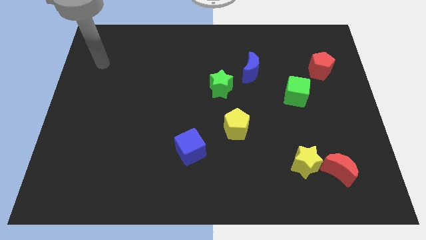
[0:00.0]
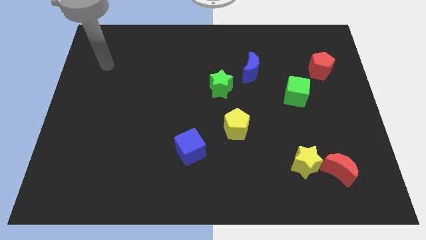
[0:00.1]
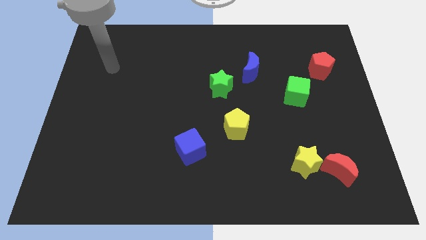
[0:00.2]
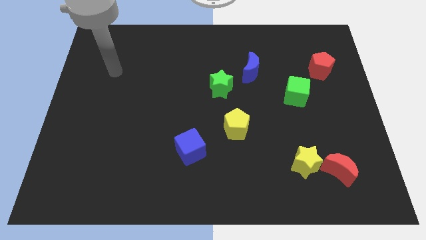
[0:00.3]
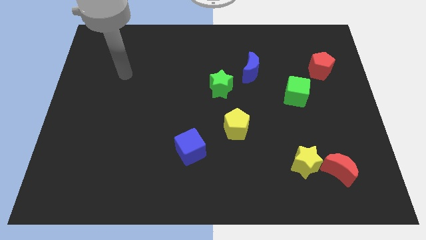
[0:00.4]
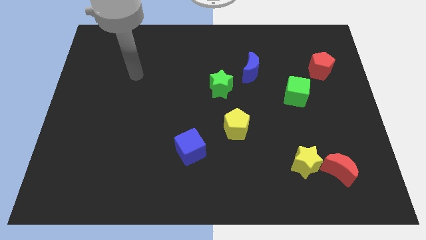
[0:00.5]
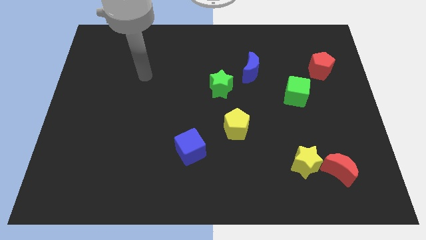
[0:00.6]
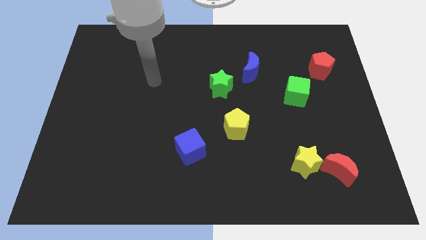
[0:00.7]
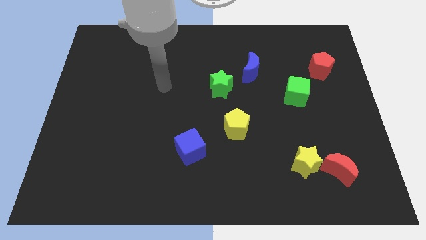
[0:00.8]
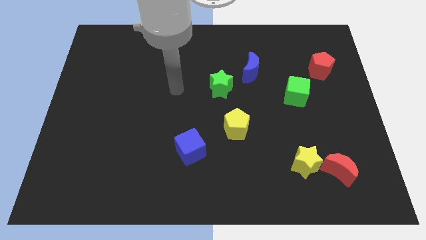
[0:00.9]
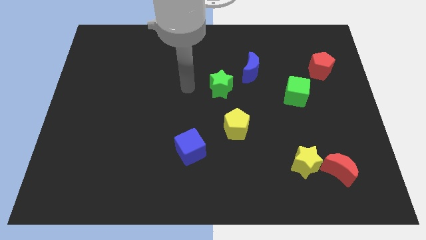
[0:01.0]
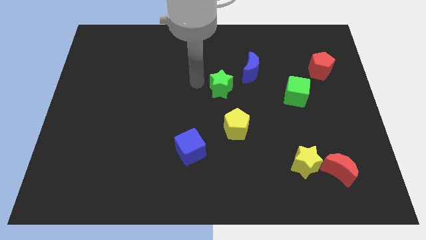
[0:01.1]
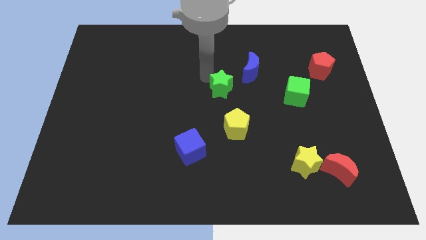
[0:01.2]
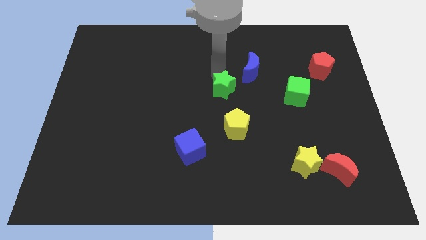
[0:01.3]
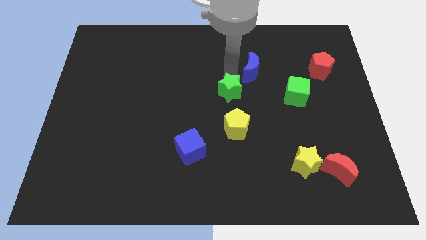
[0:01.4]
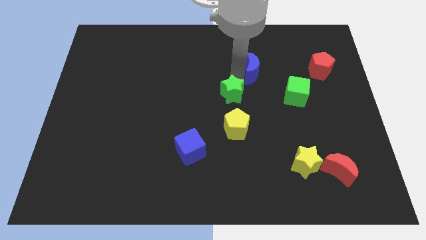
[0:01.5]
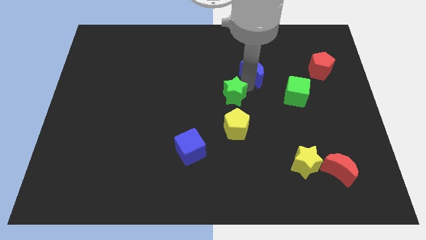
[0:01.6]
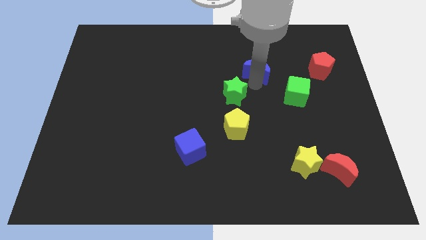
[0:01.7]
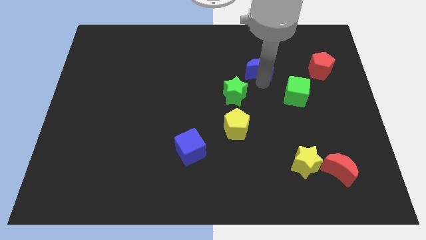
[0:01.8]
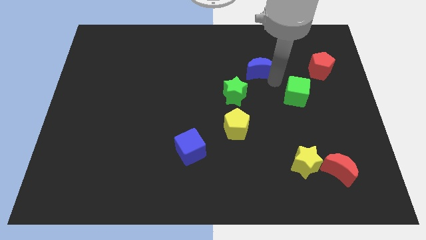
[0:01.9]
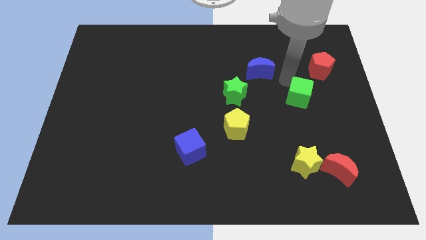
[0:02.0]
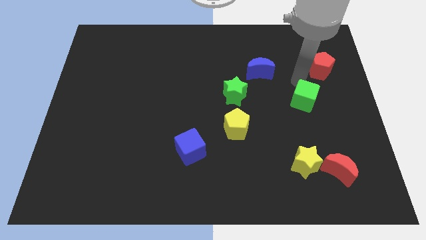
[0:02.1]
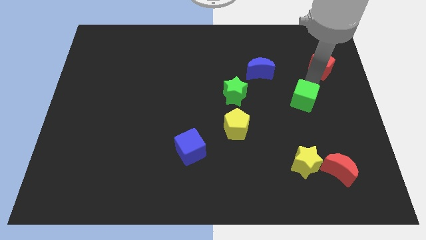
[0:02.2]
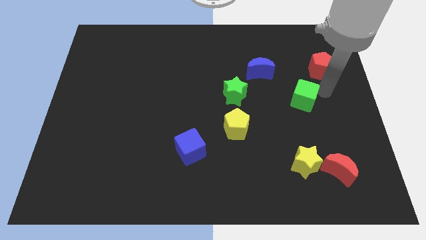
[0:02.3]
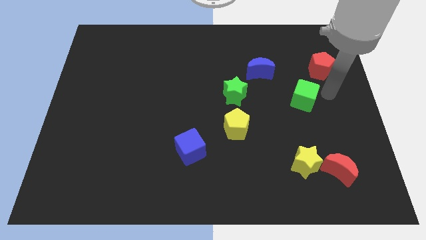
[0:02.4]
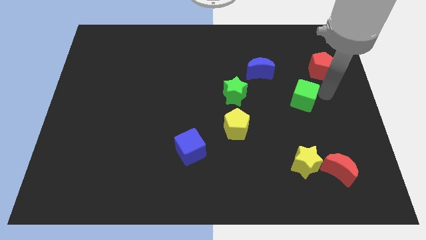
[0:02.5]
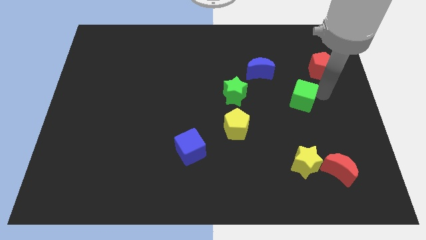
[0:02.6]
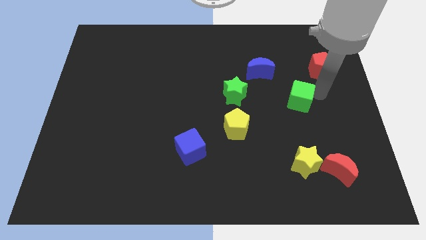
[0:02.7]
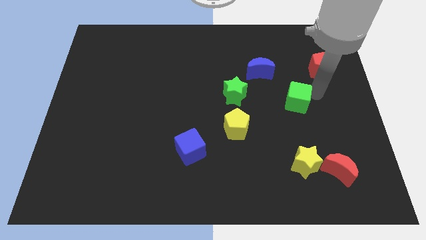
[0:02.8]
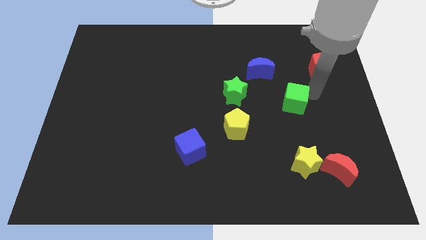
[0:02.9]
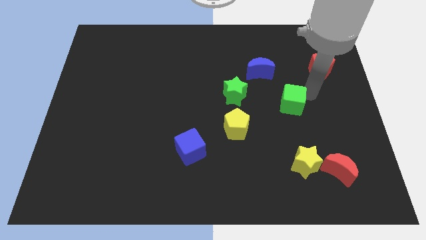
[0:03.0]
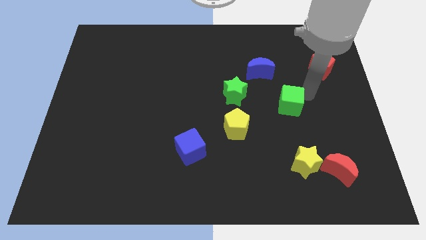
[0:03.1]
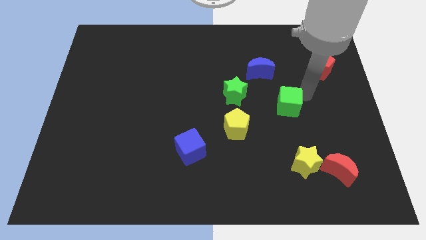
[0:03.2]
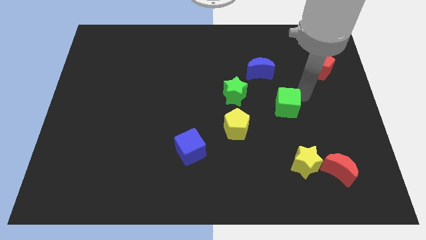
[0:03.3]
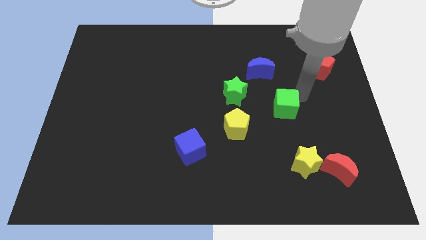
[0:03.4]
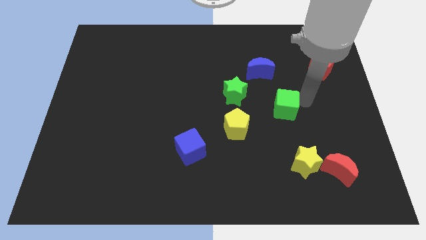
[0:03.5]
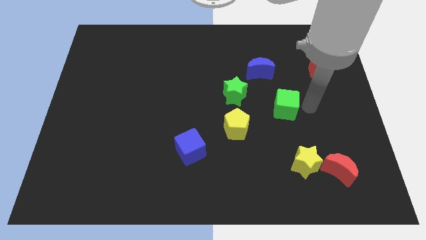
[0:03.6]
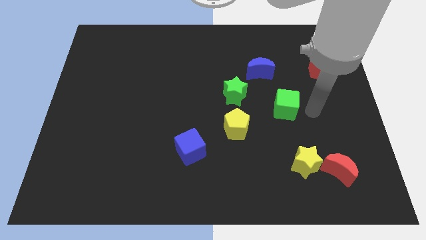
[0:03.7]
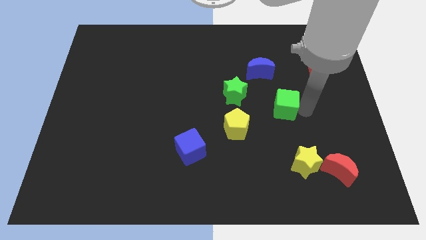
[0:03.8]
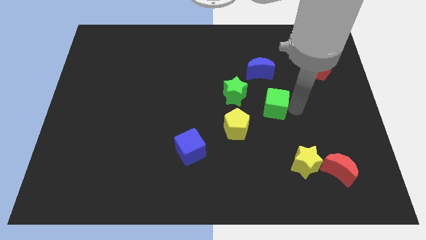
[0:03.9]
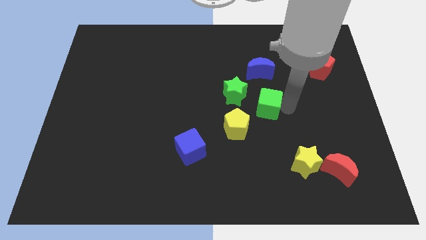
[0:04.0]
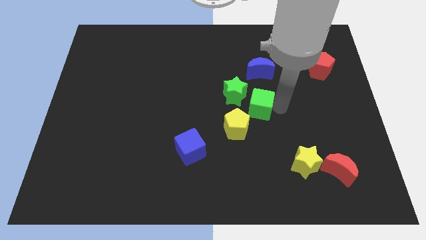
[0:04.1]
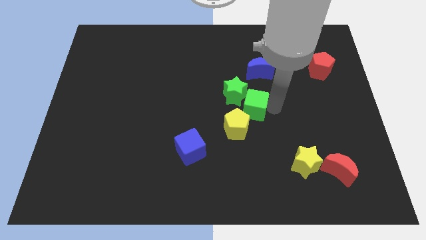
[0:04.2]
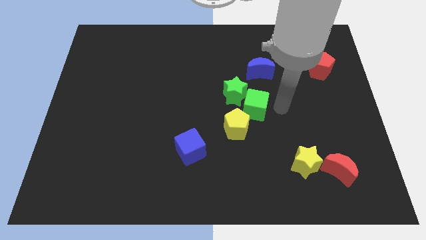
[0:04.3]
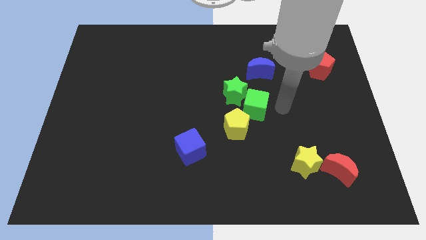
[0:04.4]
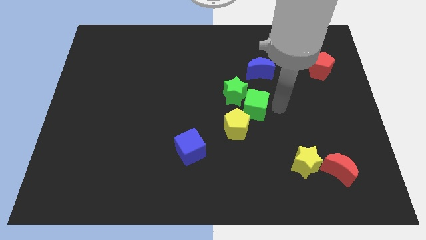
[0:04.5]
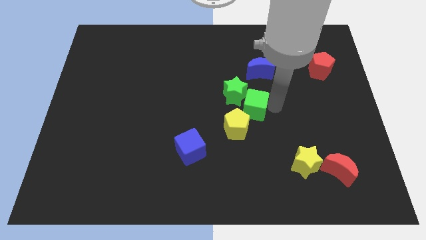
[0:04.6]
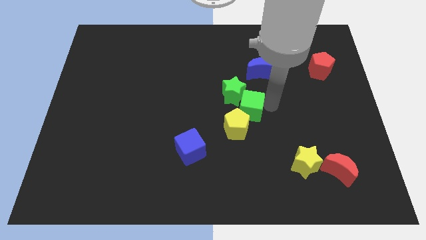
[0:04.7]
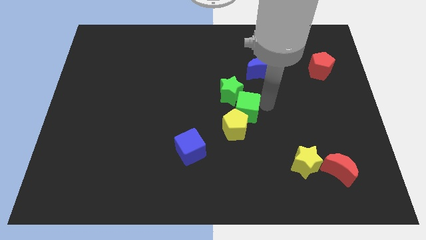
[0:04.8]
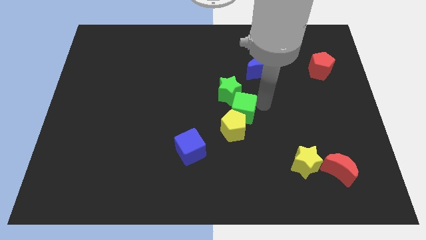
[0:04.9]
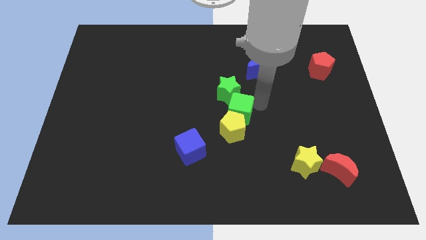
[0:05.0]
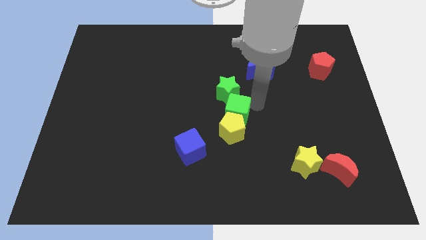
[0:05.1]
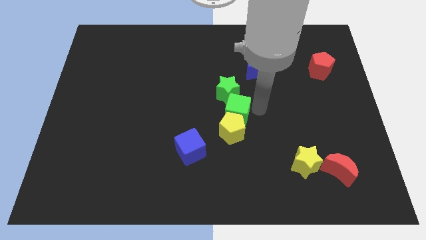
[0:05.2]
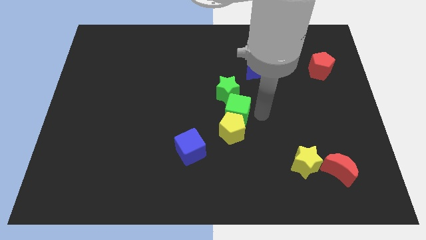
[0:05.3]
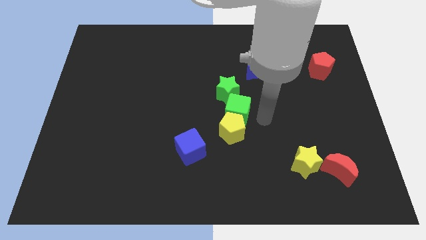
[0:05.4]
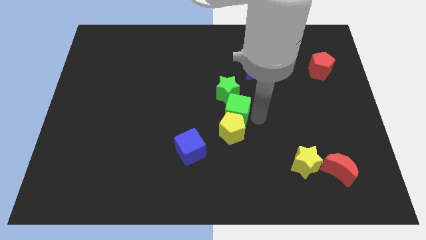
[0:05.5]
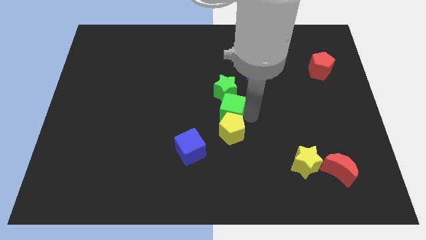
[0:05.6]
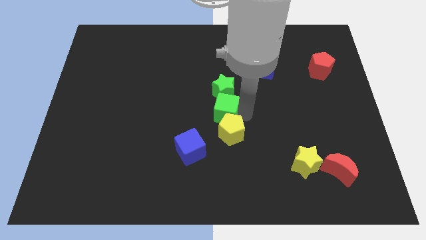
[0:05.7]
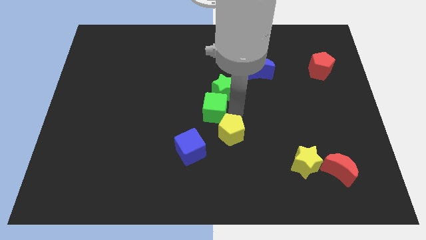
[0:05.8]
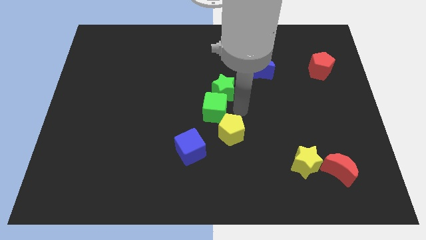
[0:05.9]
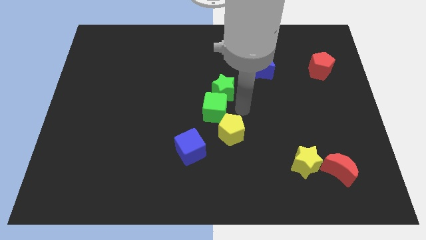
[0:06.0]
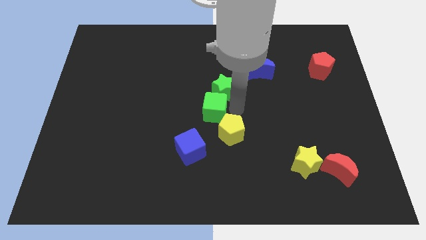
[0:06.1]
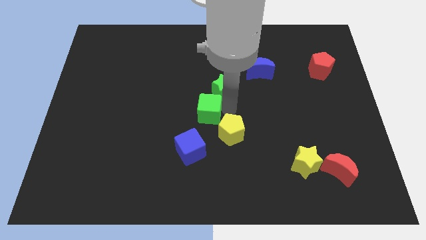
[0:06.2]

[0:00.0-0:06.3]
push the green cube to the top side of the blue cube

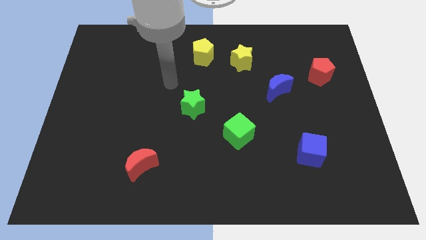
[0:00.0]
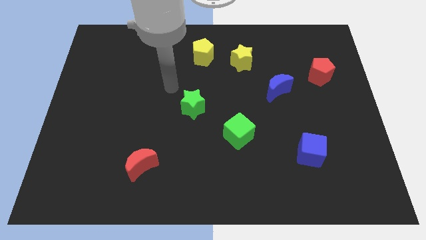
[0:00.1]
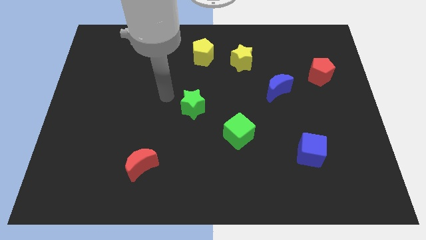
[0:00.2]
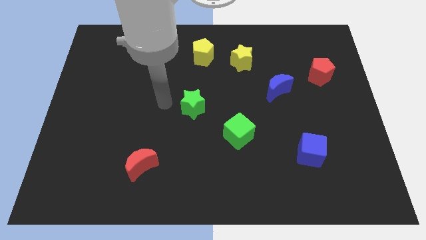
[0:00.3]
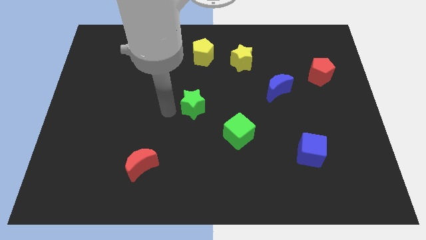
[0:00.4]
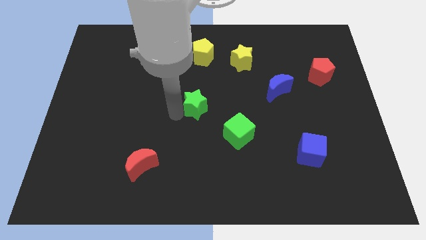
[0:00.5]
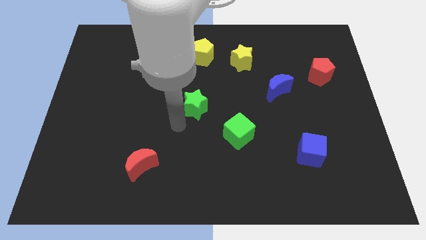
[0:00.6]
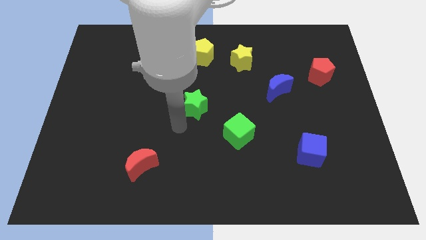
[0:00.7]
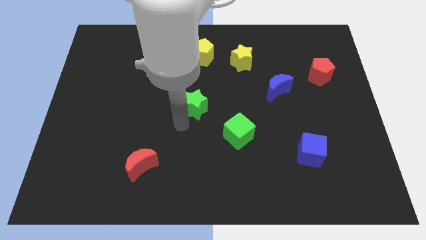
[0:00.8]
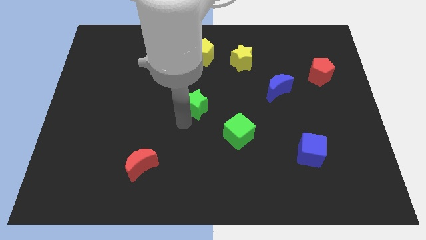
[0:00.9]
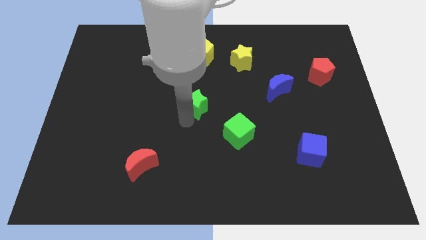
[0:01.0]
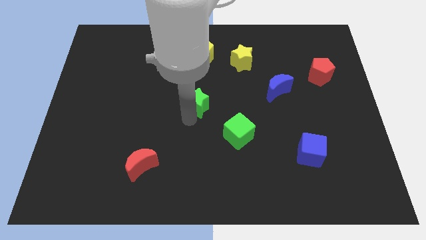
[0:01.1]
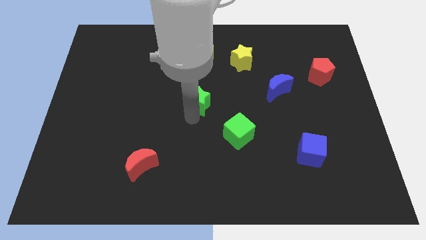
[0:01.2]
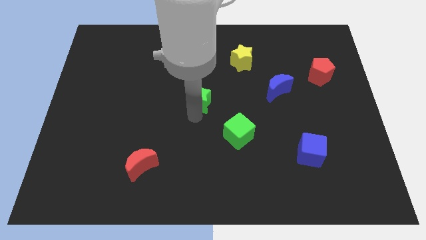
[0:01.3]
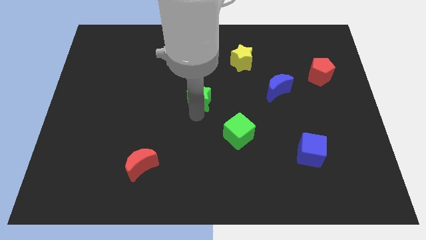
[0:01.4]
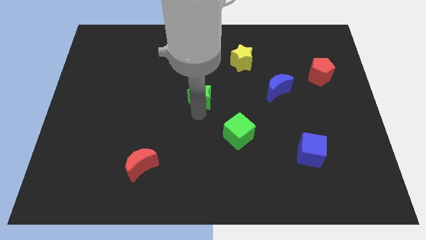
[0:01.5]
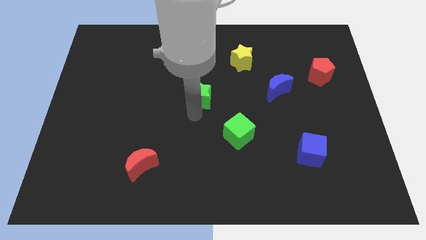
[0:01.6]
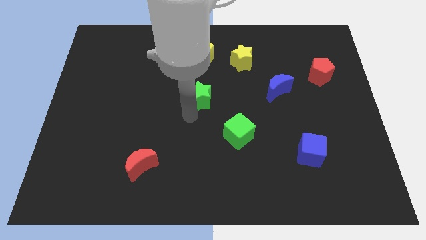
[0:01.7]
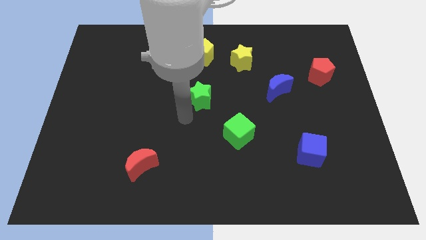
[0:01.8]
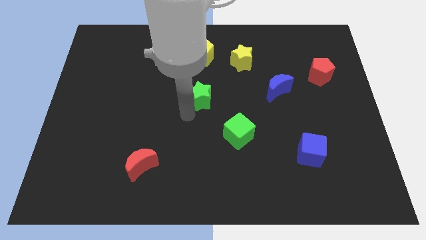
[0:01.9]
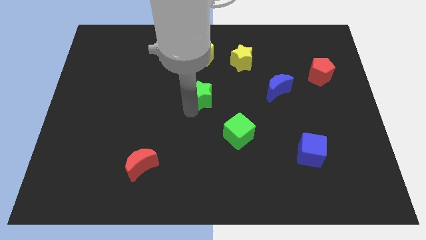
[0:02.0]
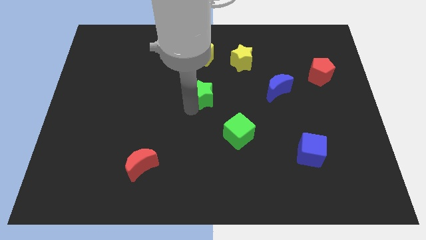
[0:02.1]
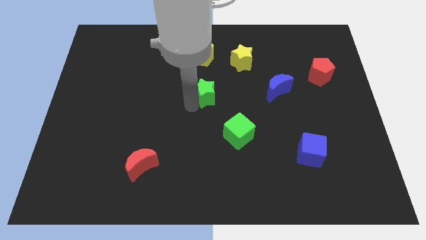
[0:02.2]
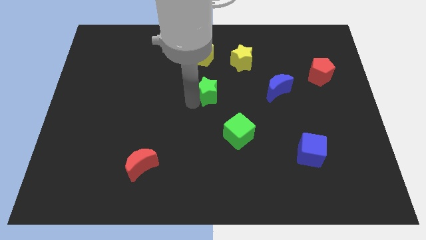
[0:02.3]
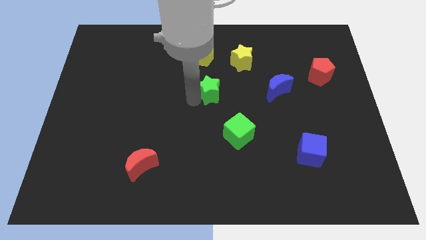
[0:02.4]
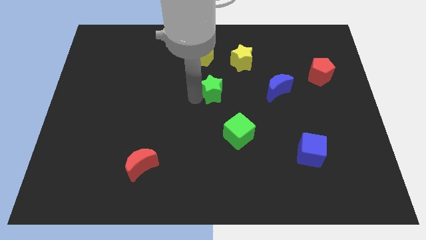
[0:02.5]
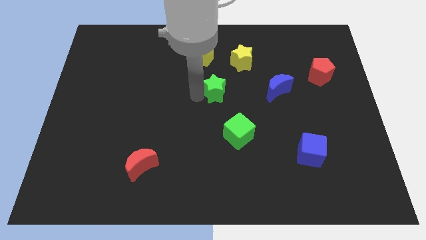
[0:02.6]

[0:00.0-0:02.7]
put the green star to the bottom left of the yellow star
